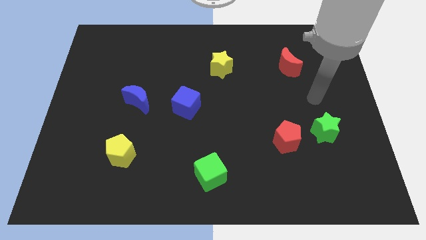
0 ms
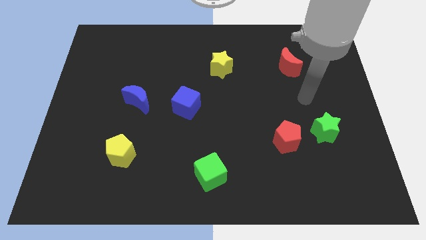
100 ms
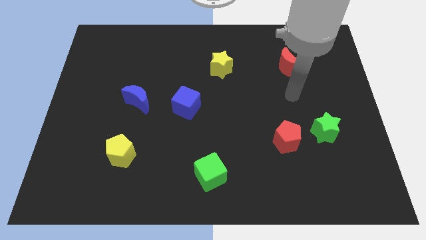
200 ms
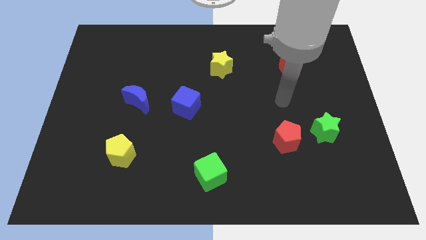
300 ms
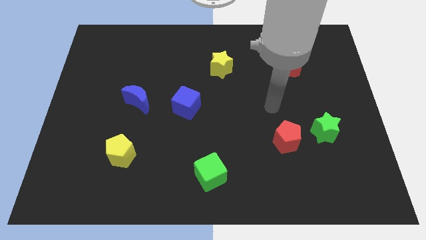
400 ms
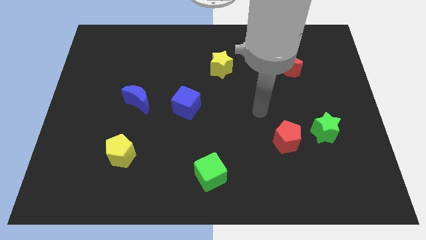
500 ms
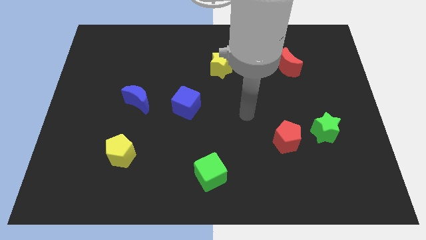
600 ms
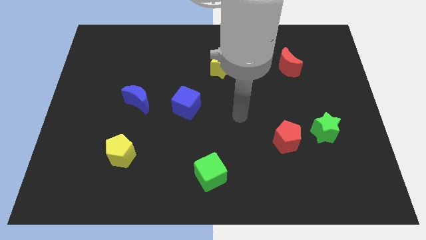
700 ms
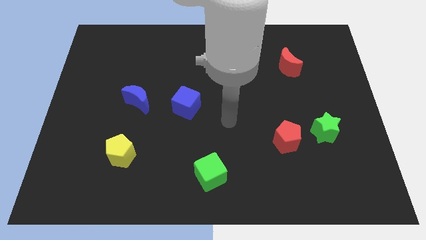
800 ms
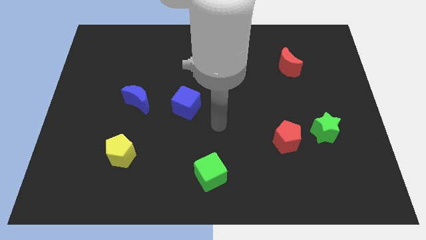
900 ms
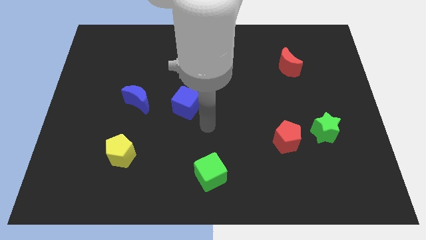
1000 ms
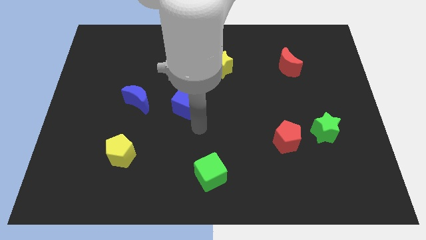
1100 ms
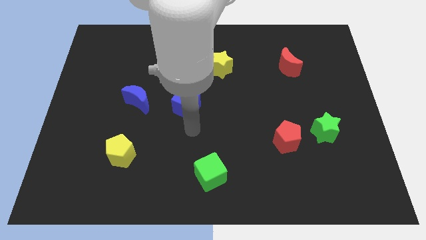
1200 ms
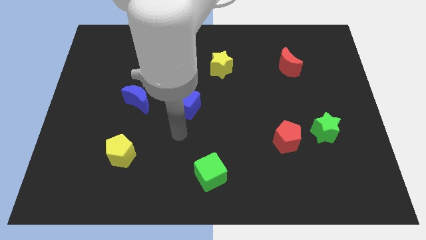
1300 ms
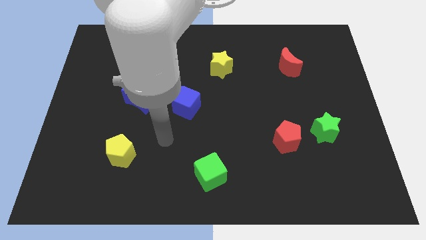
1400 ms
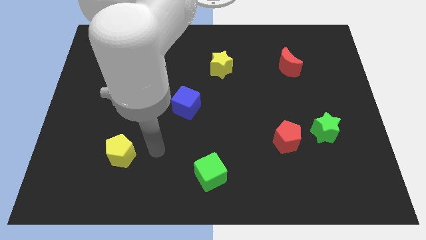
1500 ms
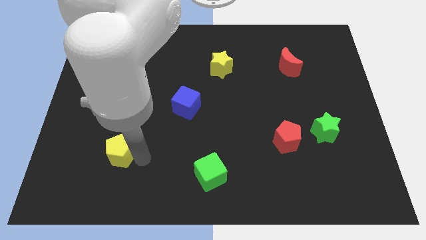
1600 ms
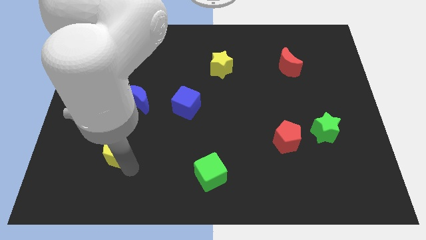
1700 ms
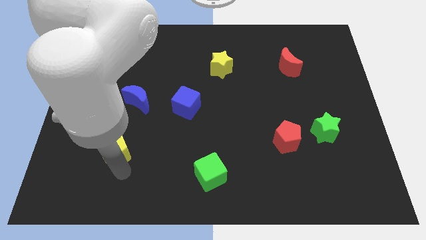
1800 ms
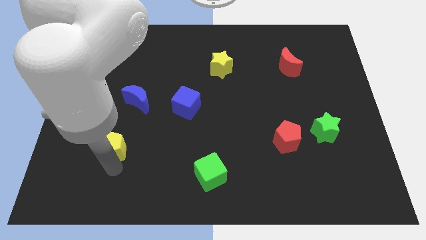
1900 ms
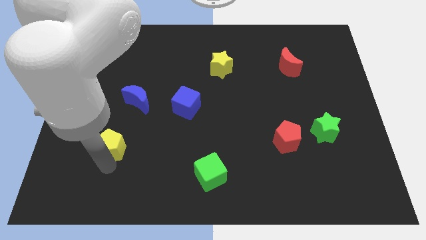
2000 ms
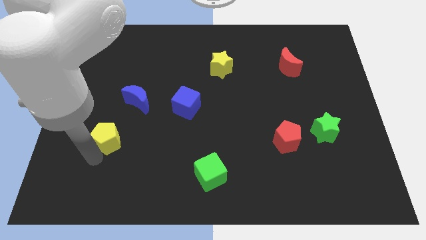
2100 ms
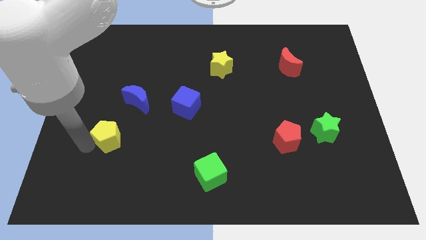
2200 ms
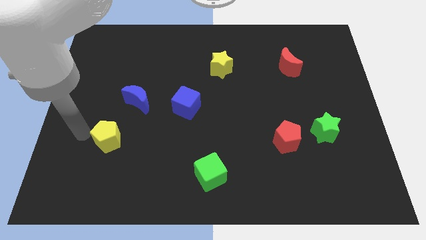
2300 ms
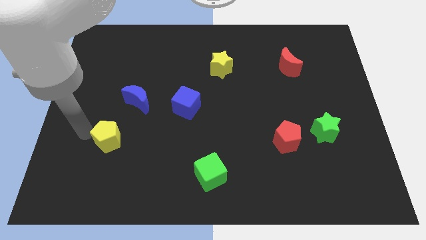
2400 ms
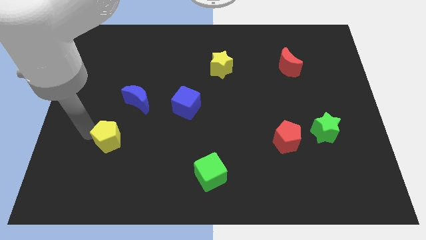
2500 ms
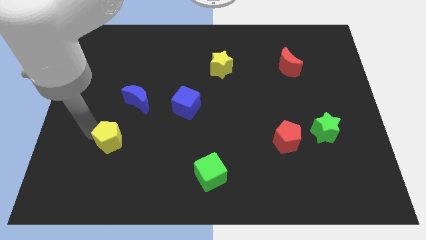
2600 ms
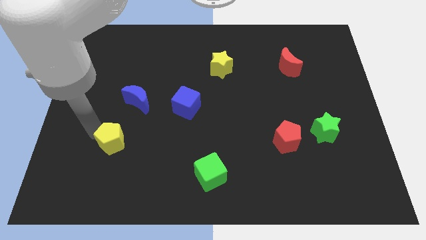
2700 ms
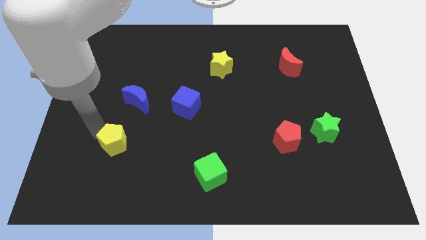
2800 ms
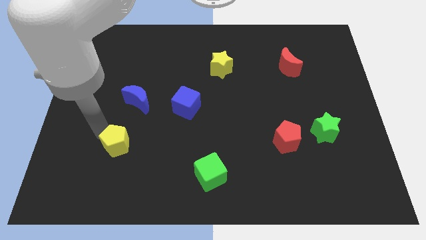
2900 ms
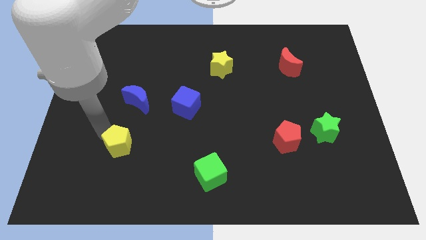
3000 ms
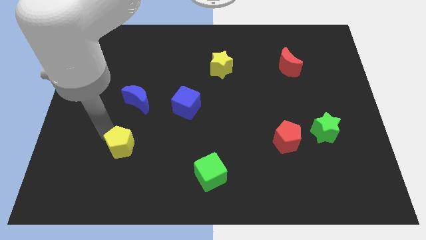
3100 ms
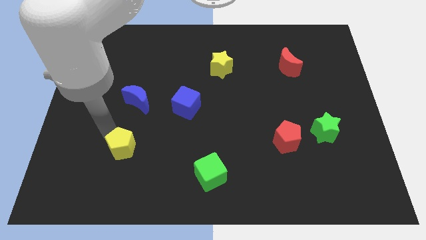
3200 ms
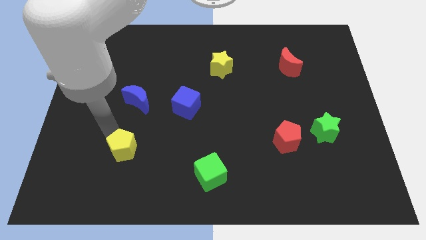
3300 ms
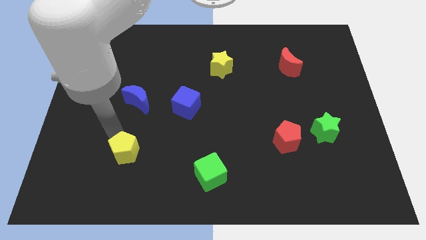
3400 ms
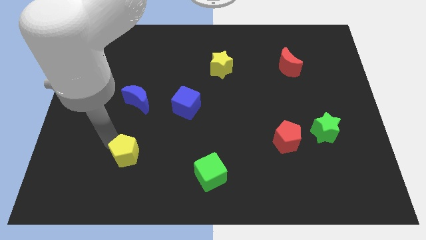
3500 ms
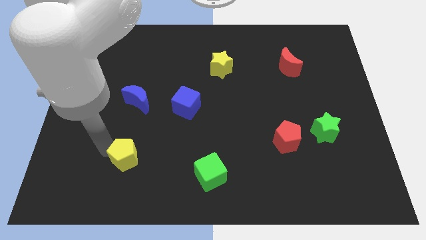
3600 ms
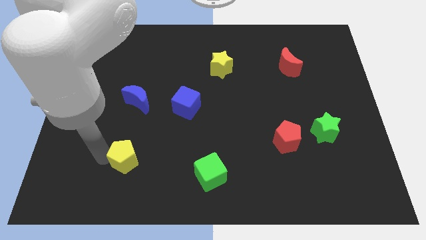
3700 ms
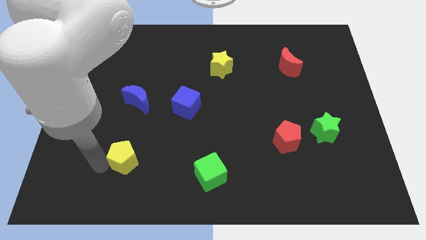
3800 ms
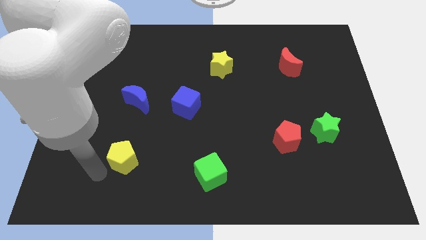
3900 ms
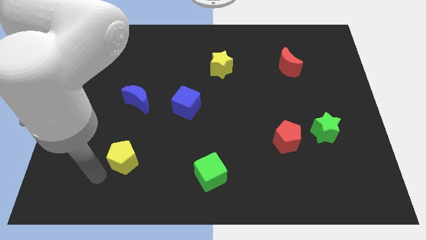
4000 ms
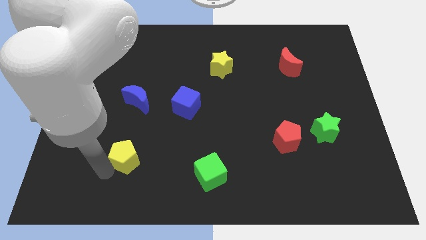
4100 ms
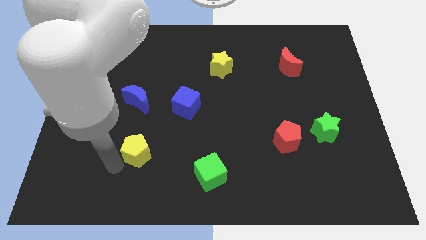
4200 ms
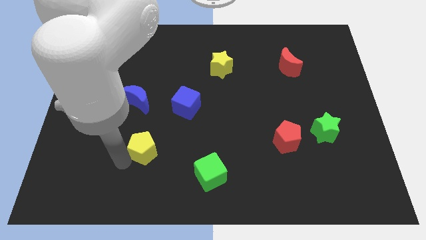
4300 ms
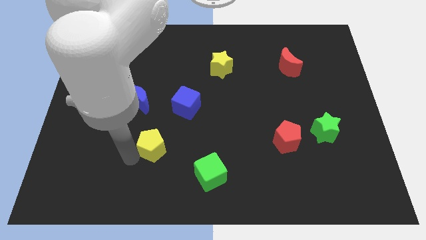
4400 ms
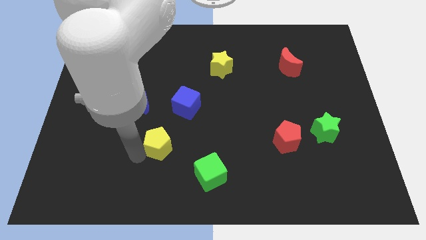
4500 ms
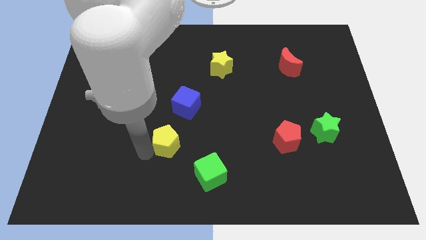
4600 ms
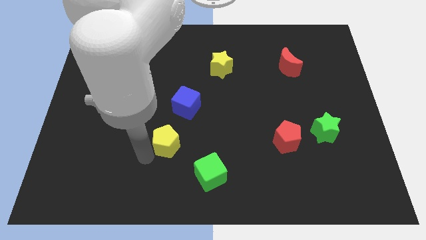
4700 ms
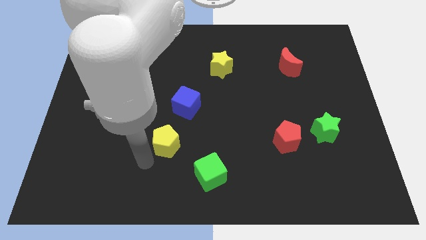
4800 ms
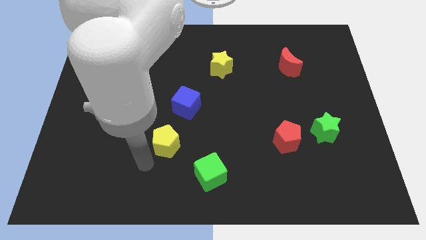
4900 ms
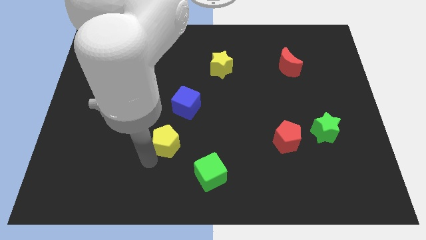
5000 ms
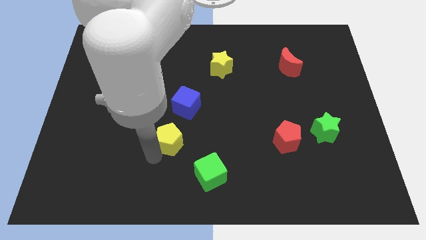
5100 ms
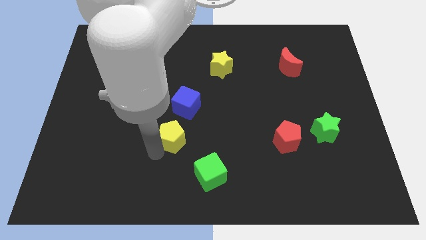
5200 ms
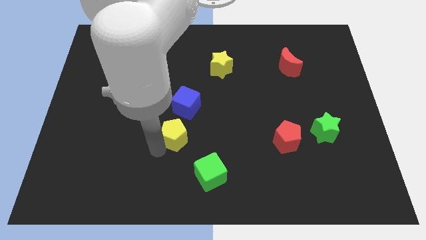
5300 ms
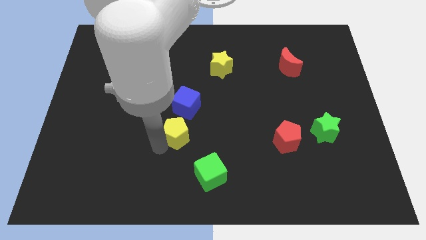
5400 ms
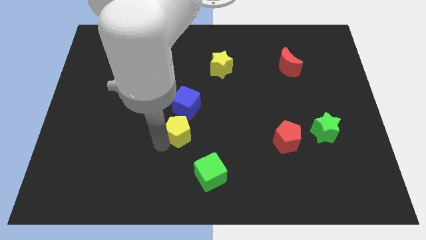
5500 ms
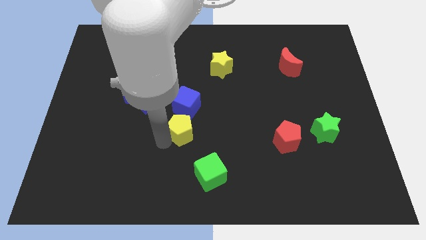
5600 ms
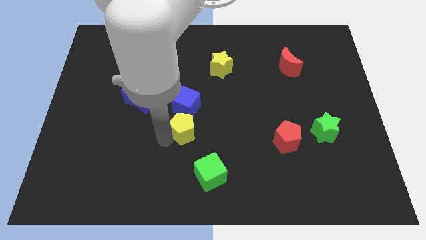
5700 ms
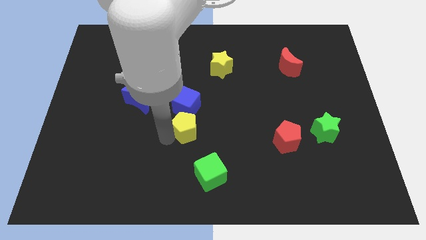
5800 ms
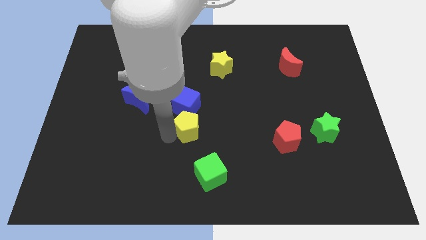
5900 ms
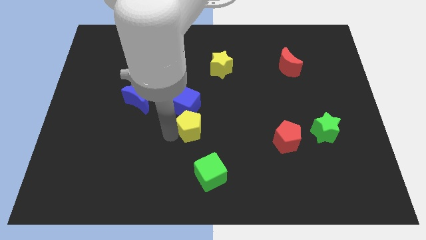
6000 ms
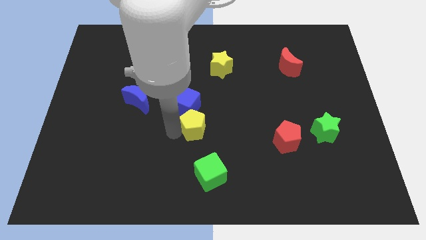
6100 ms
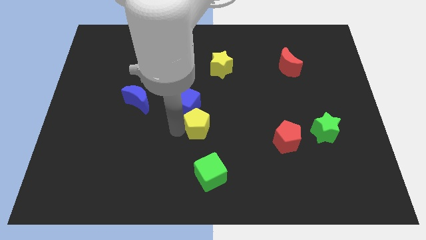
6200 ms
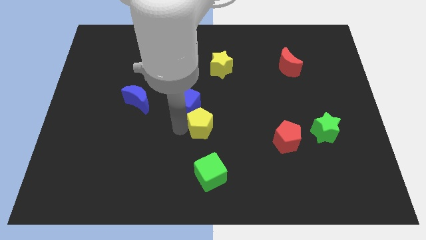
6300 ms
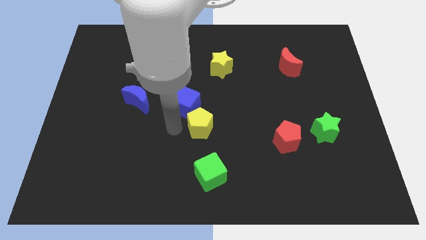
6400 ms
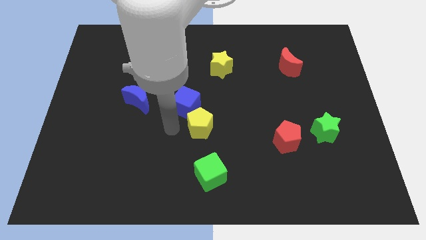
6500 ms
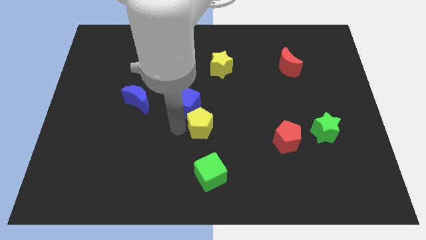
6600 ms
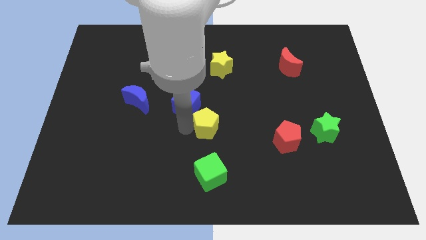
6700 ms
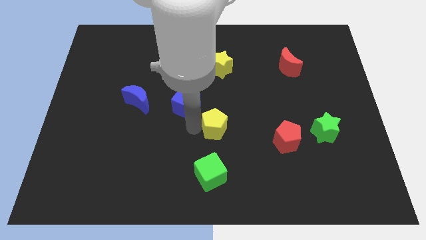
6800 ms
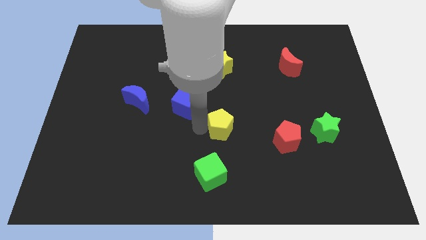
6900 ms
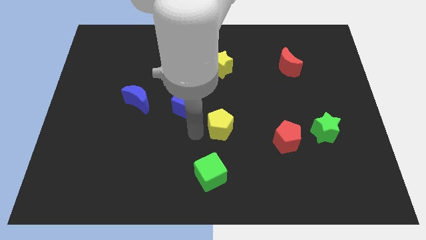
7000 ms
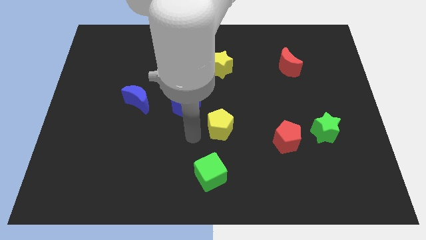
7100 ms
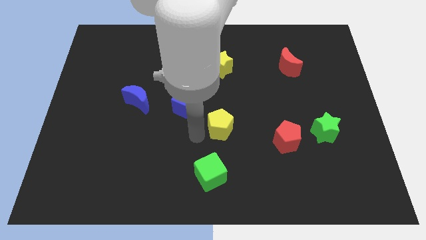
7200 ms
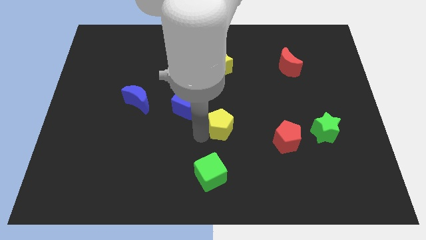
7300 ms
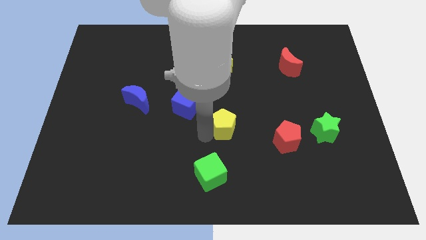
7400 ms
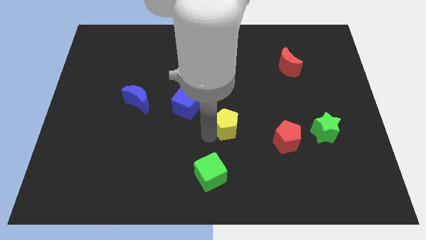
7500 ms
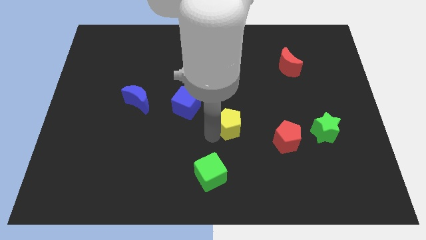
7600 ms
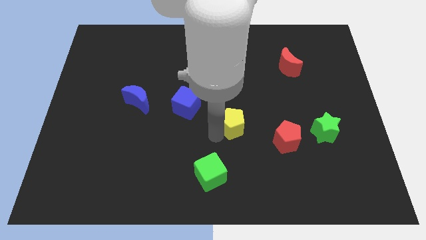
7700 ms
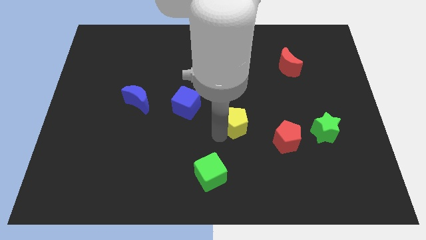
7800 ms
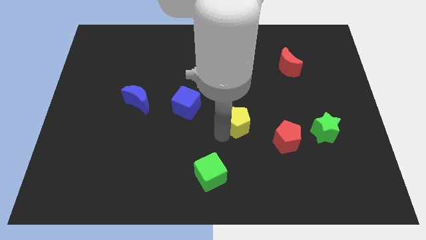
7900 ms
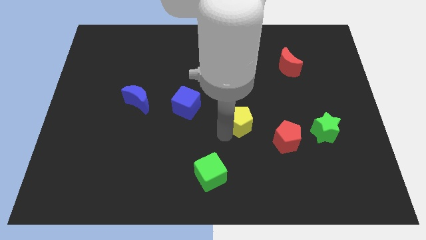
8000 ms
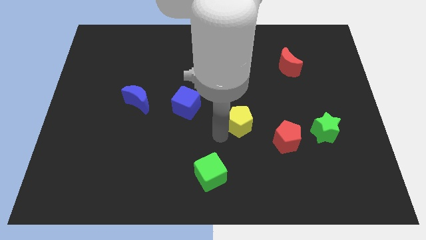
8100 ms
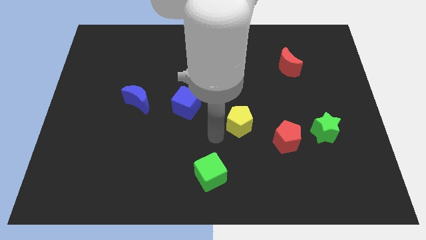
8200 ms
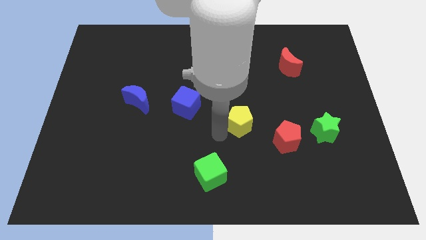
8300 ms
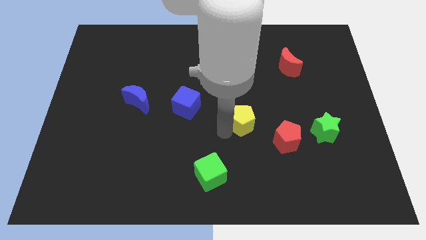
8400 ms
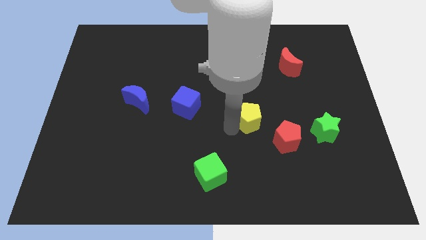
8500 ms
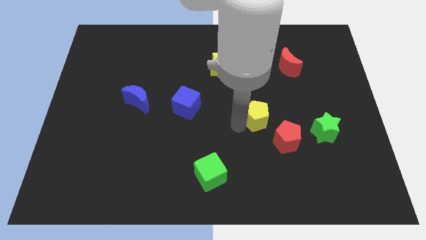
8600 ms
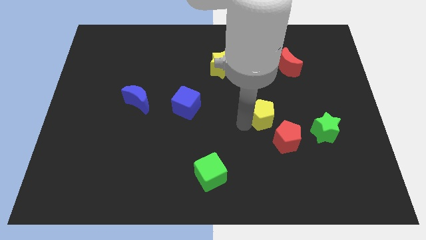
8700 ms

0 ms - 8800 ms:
move the yellow pentagon to the top of the red pentagon
